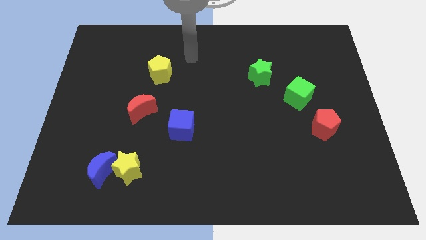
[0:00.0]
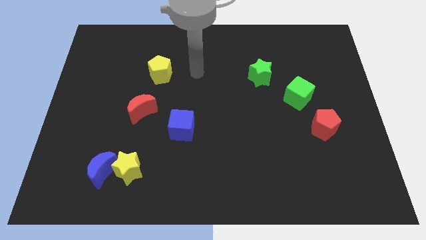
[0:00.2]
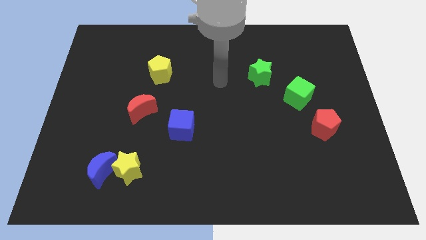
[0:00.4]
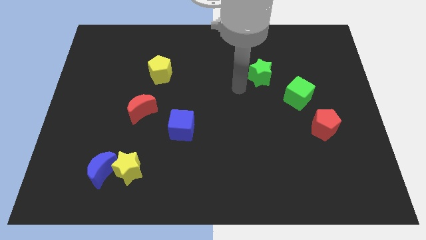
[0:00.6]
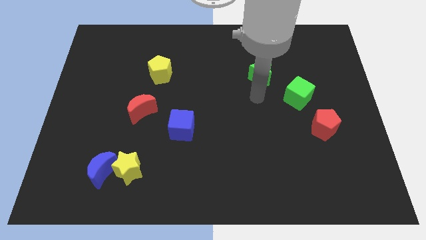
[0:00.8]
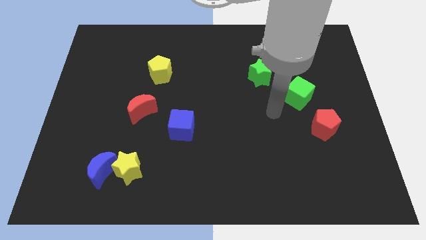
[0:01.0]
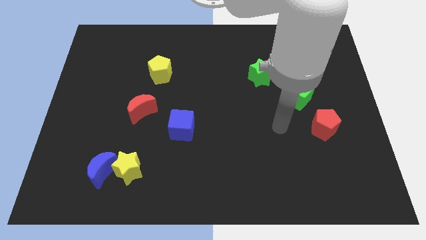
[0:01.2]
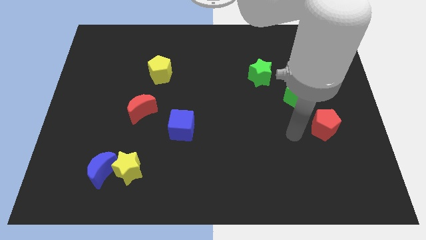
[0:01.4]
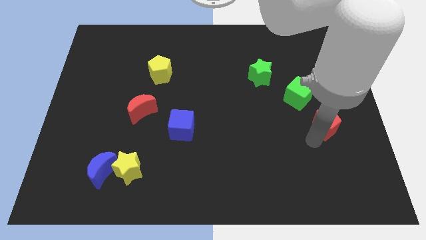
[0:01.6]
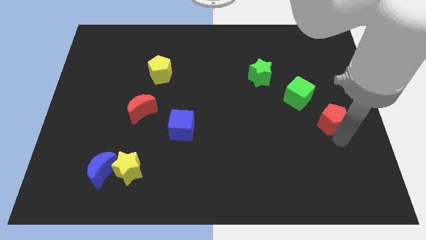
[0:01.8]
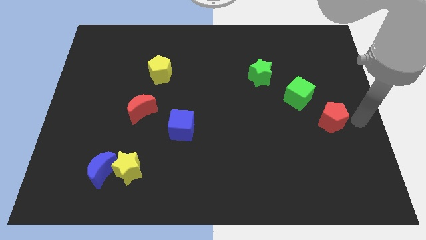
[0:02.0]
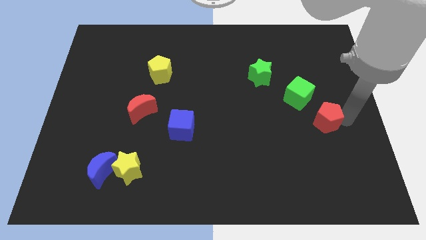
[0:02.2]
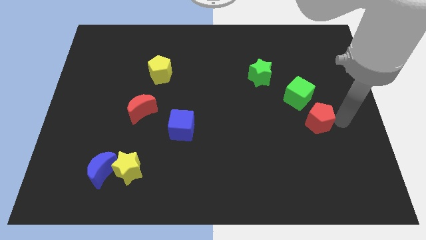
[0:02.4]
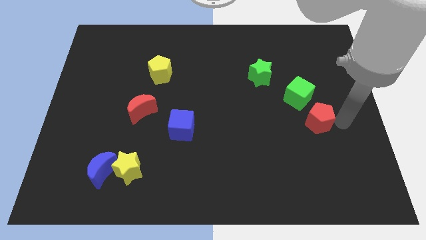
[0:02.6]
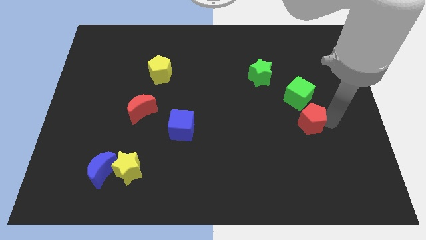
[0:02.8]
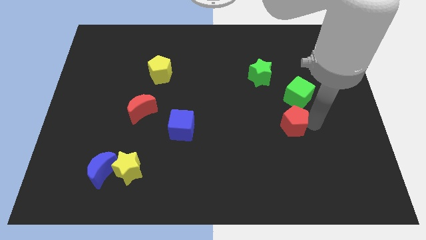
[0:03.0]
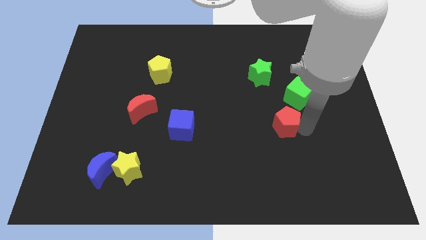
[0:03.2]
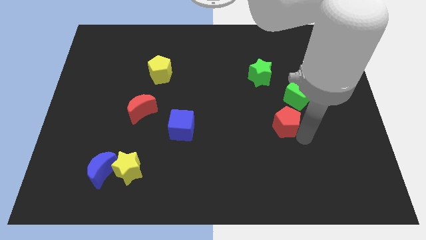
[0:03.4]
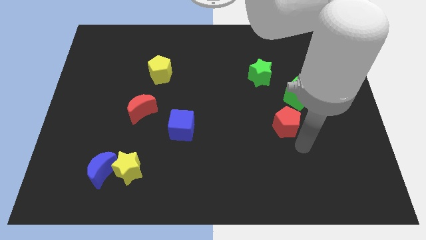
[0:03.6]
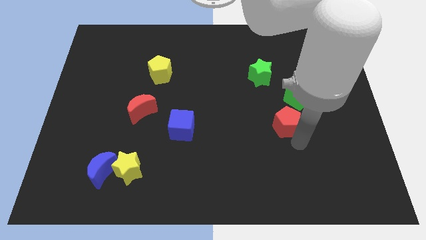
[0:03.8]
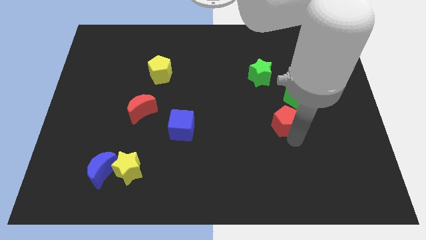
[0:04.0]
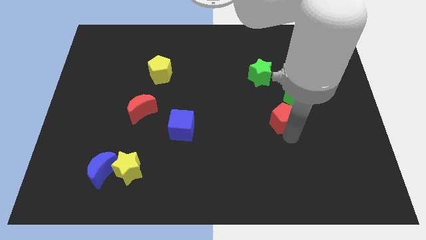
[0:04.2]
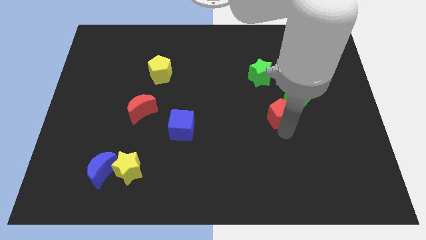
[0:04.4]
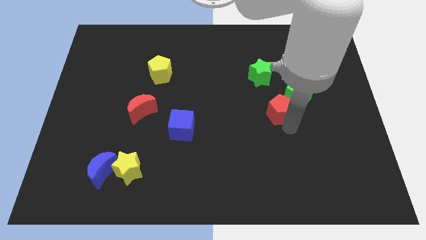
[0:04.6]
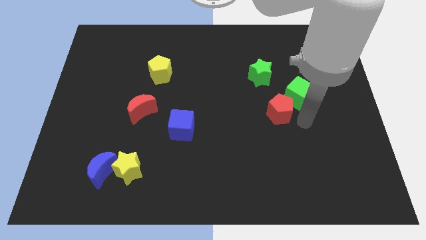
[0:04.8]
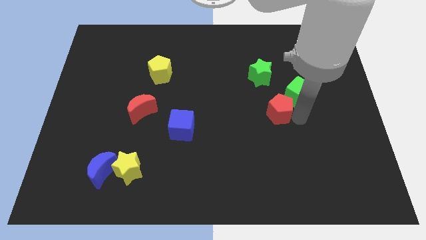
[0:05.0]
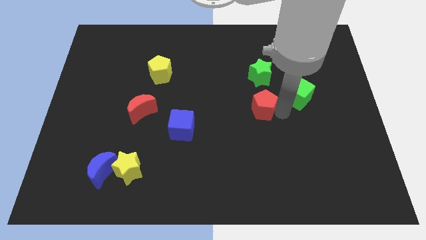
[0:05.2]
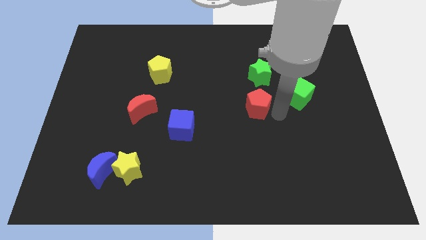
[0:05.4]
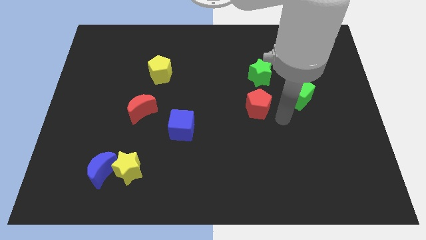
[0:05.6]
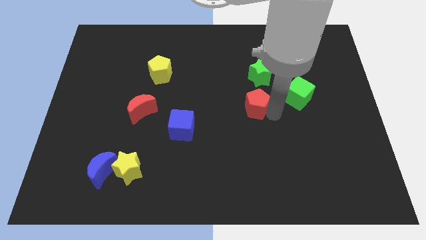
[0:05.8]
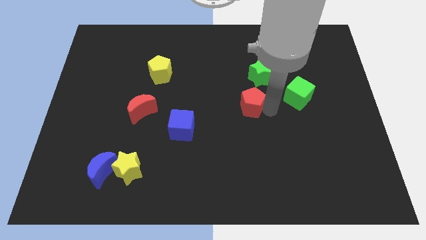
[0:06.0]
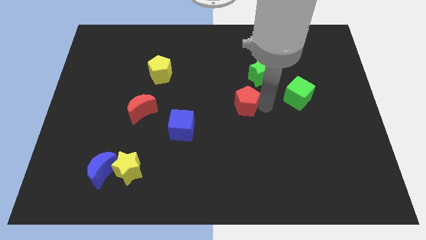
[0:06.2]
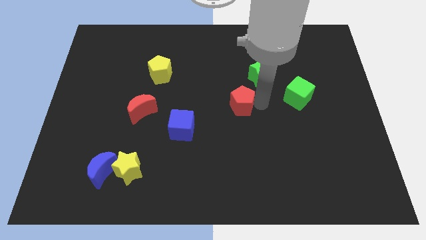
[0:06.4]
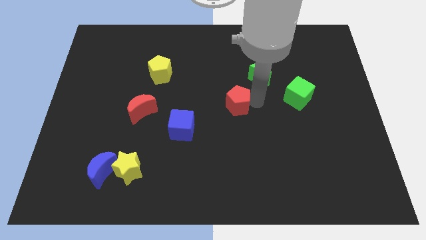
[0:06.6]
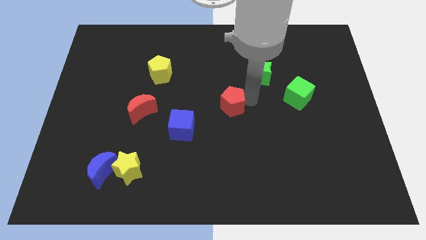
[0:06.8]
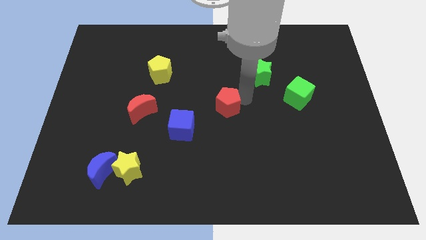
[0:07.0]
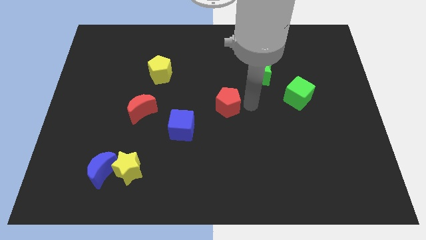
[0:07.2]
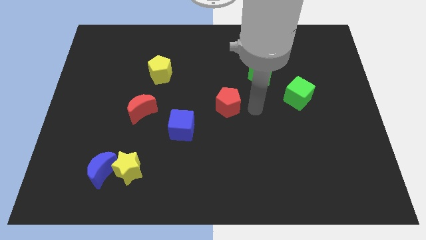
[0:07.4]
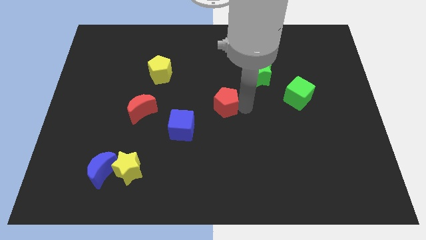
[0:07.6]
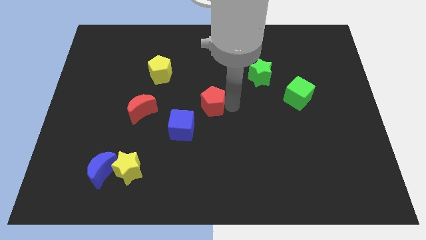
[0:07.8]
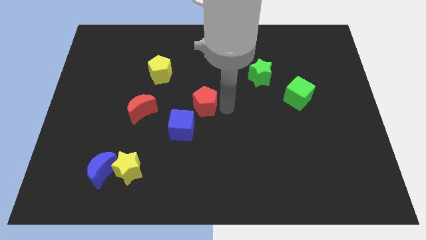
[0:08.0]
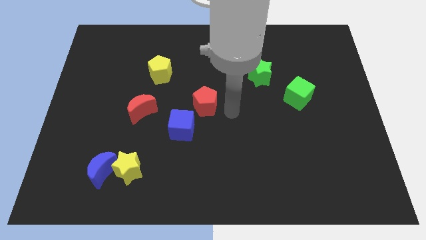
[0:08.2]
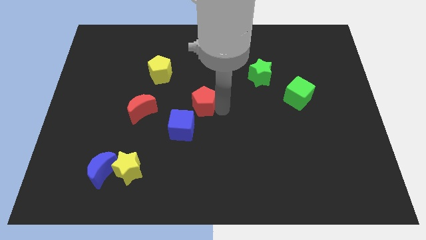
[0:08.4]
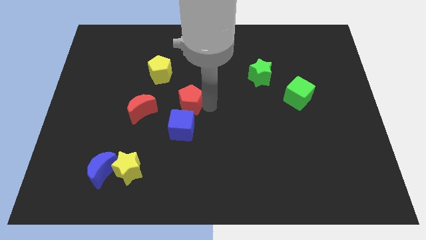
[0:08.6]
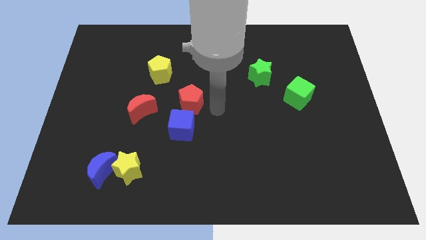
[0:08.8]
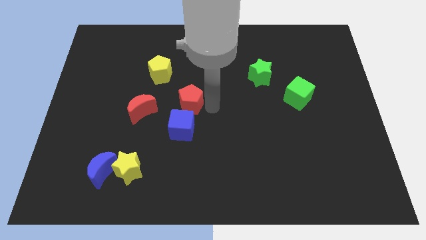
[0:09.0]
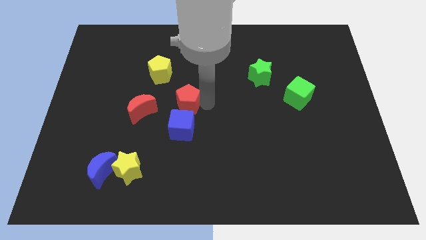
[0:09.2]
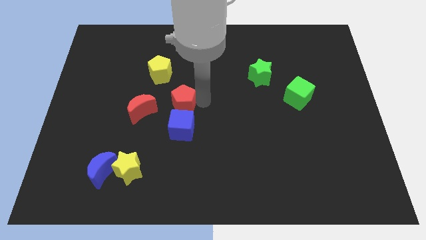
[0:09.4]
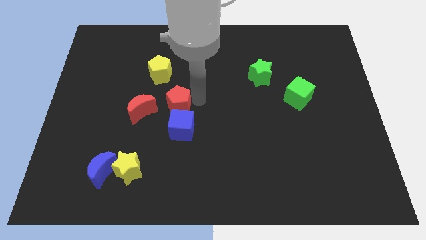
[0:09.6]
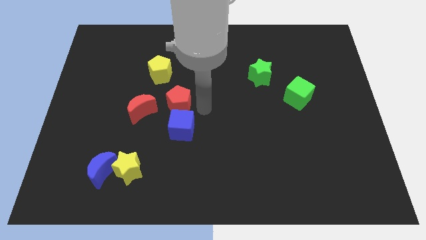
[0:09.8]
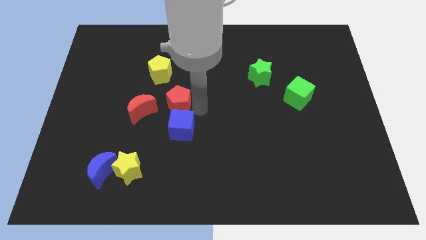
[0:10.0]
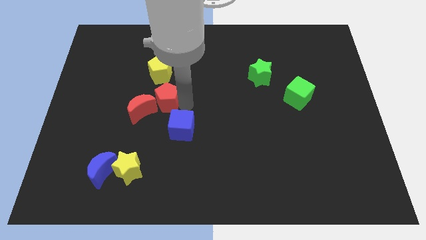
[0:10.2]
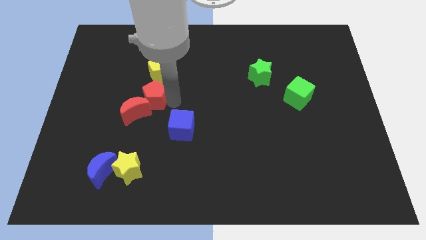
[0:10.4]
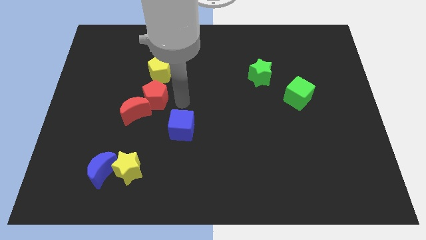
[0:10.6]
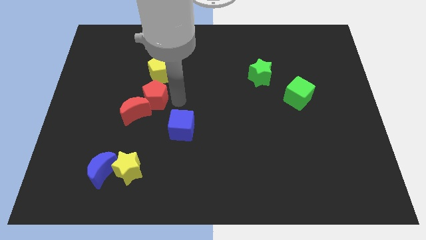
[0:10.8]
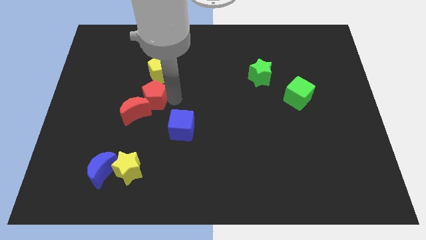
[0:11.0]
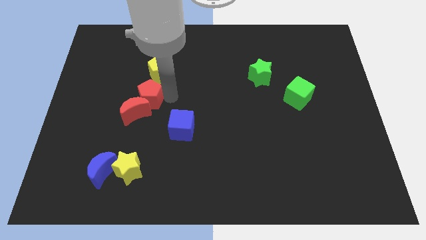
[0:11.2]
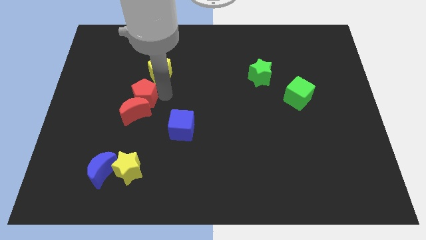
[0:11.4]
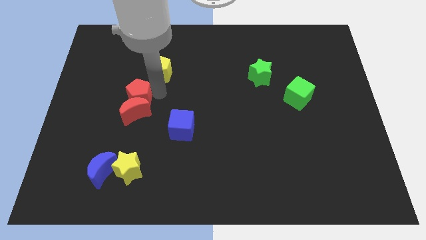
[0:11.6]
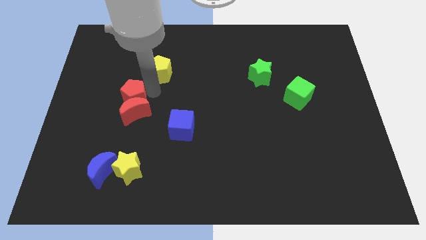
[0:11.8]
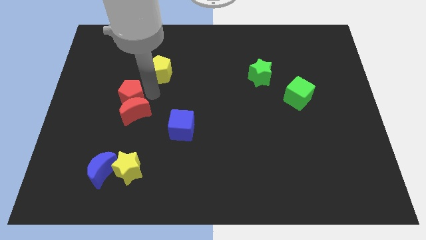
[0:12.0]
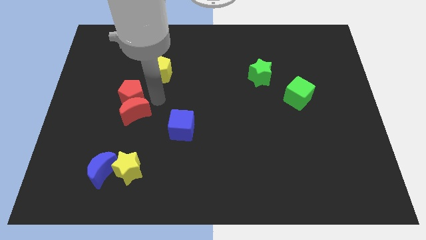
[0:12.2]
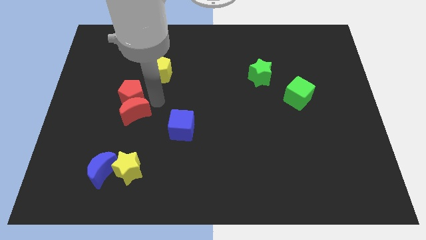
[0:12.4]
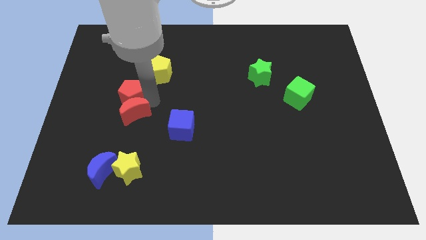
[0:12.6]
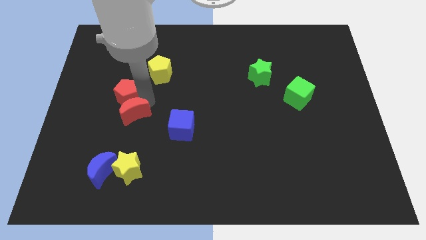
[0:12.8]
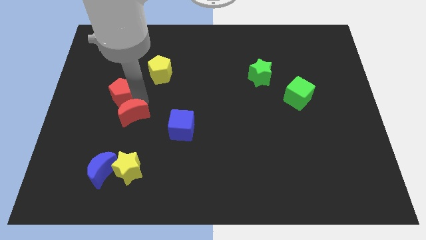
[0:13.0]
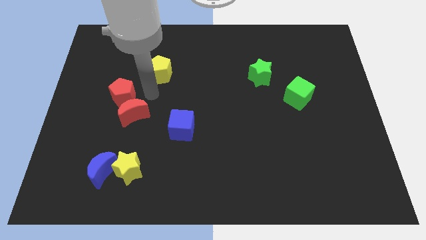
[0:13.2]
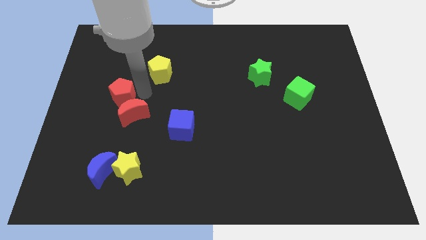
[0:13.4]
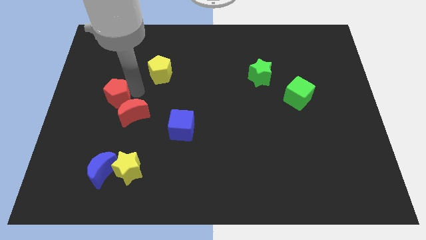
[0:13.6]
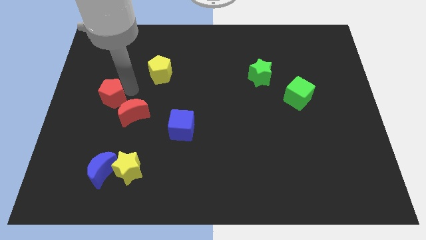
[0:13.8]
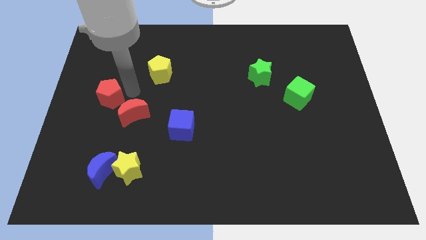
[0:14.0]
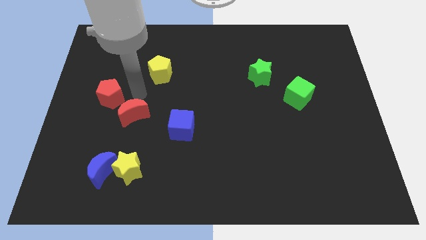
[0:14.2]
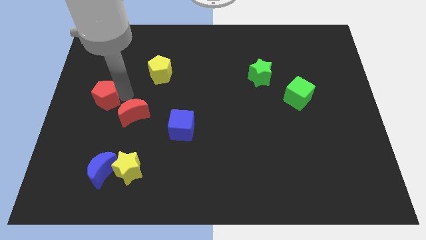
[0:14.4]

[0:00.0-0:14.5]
put the red pentagon to the left side of the board
